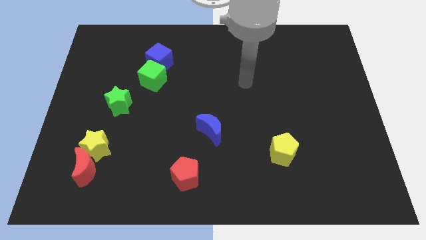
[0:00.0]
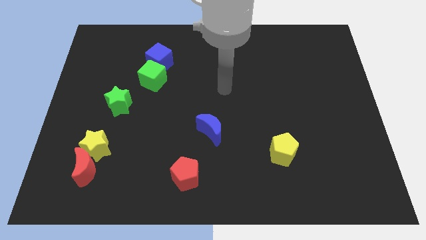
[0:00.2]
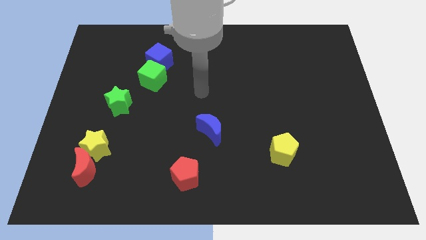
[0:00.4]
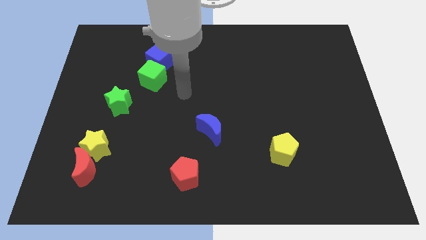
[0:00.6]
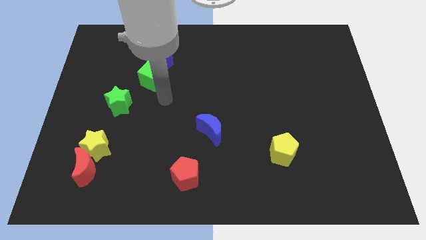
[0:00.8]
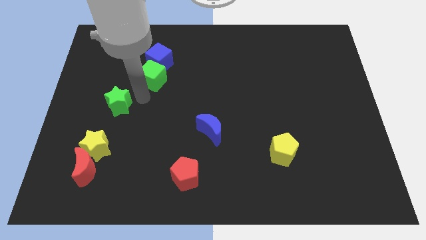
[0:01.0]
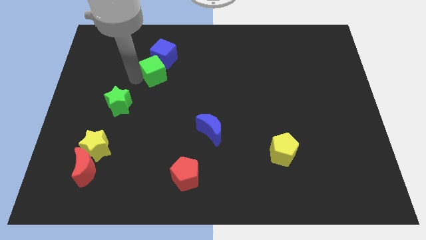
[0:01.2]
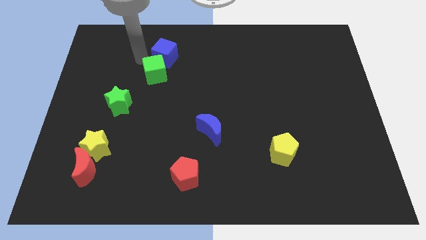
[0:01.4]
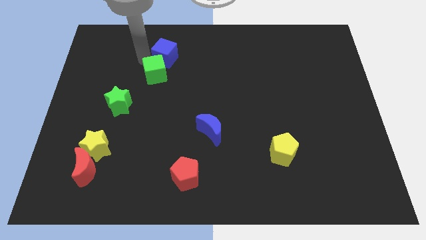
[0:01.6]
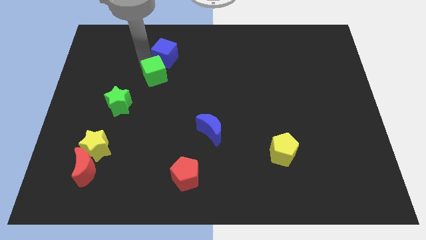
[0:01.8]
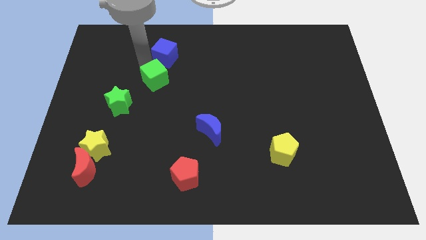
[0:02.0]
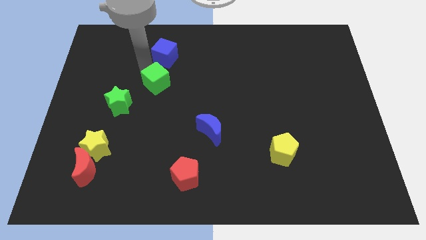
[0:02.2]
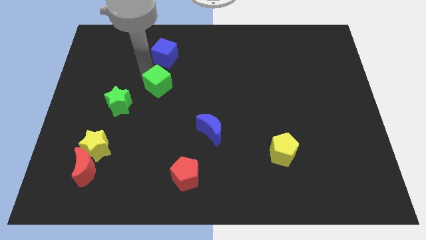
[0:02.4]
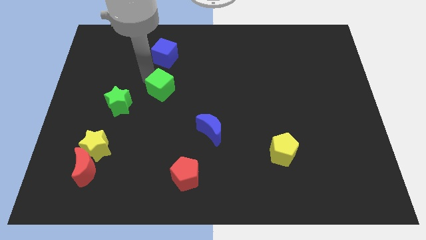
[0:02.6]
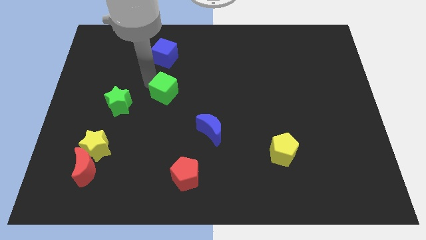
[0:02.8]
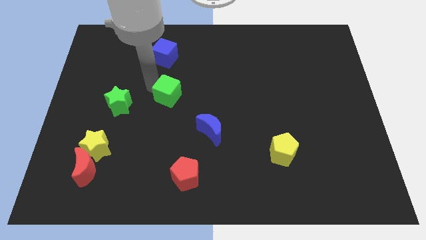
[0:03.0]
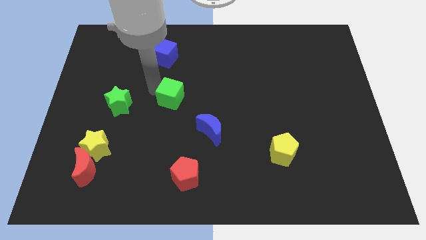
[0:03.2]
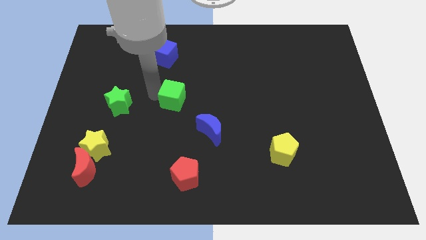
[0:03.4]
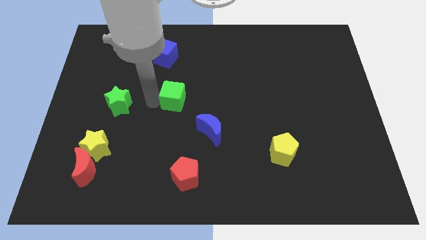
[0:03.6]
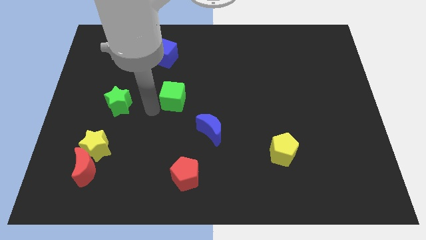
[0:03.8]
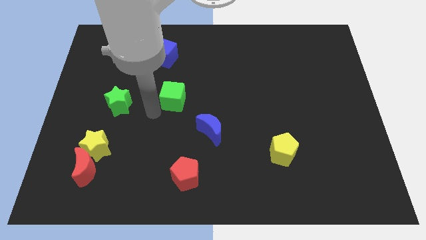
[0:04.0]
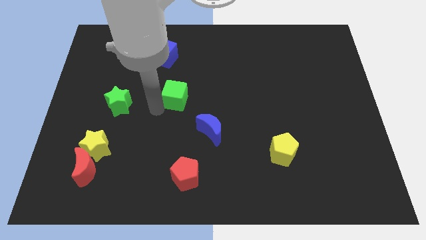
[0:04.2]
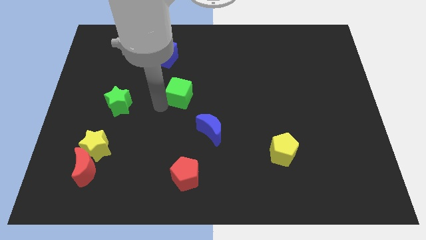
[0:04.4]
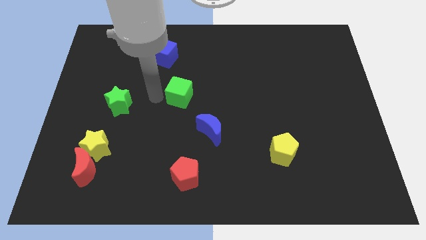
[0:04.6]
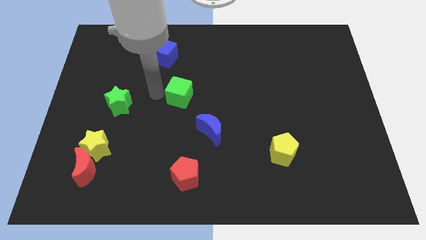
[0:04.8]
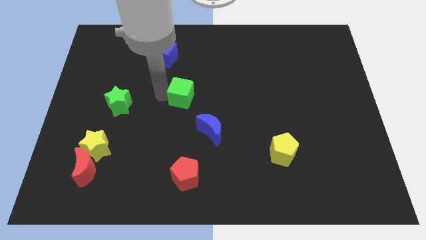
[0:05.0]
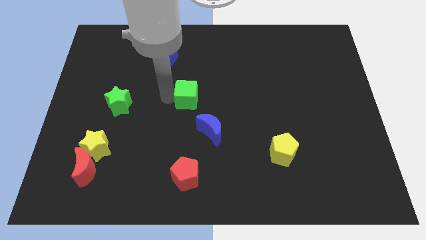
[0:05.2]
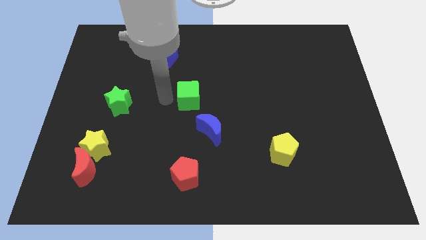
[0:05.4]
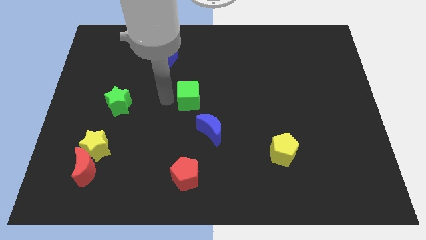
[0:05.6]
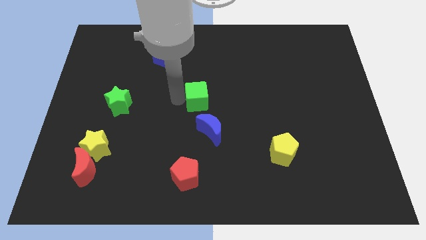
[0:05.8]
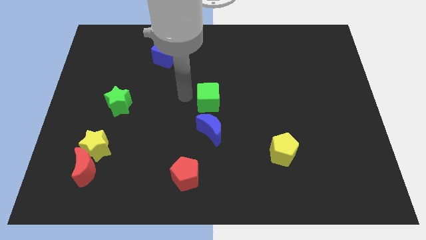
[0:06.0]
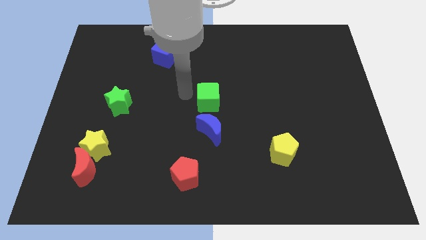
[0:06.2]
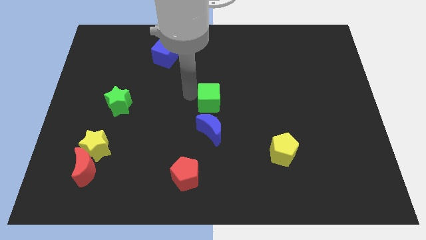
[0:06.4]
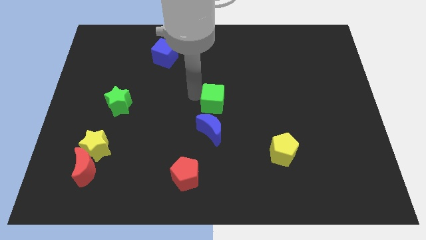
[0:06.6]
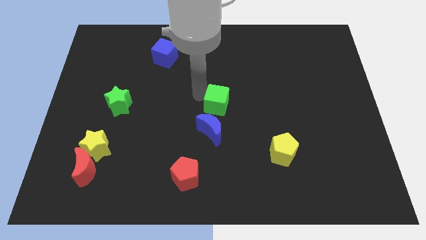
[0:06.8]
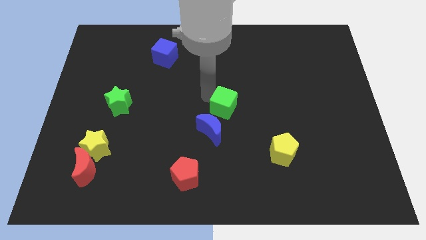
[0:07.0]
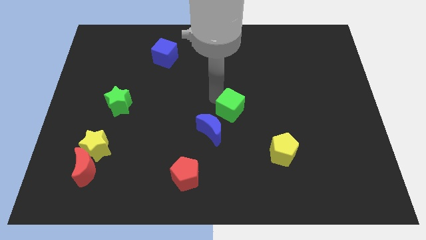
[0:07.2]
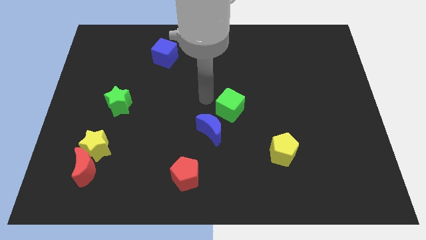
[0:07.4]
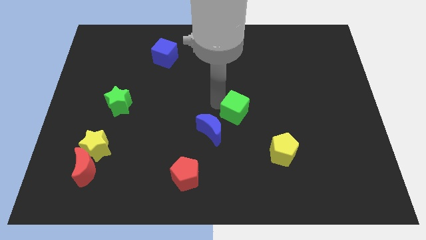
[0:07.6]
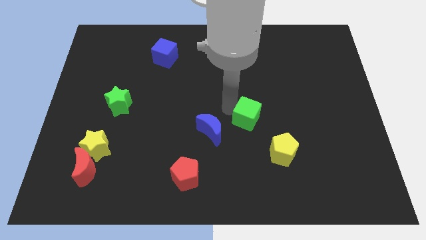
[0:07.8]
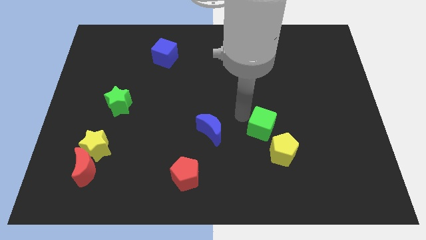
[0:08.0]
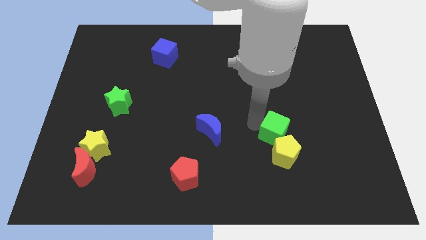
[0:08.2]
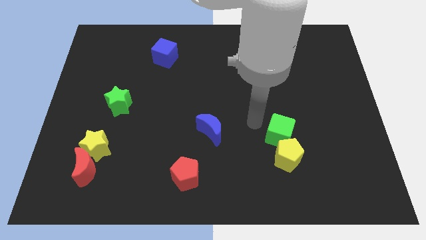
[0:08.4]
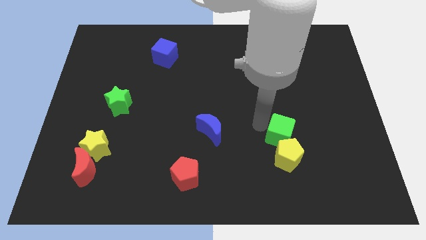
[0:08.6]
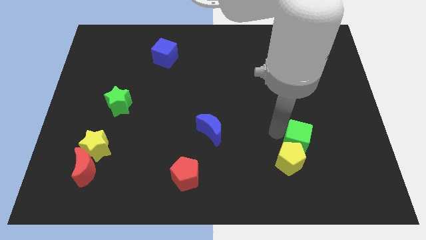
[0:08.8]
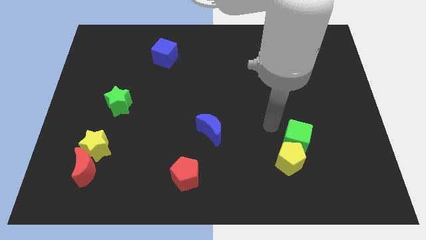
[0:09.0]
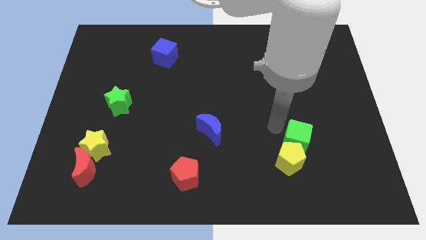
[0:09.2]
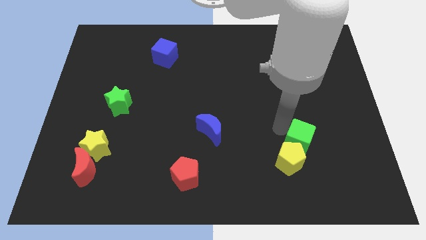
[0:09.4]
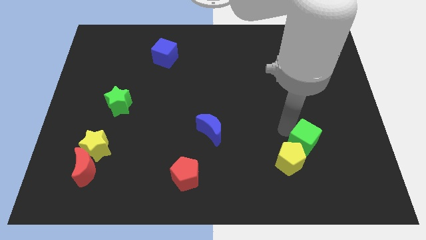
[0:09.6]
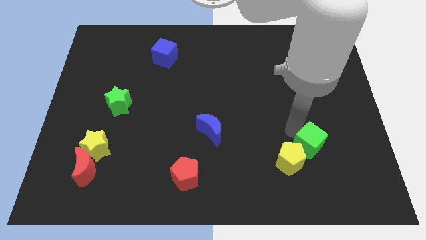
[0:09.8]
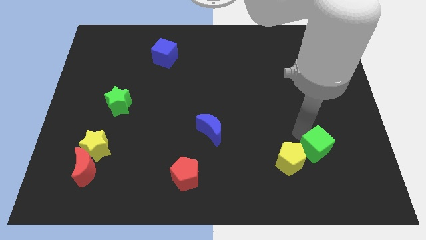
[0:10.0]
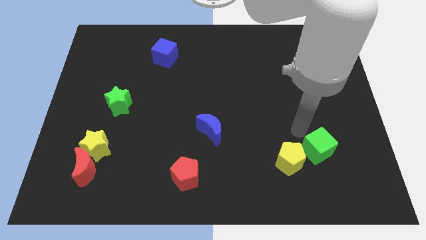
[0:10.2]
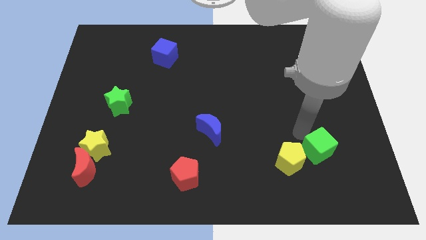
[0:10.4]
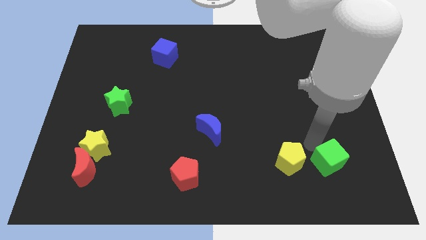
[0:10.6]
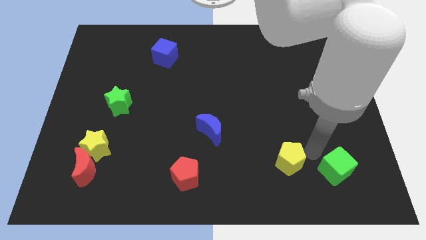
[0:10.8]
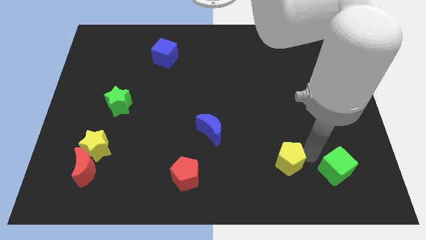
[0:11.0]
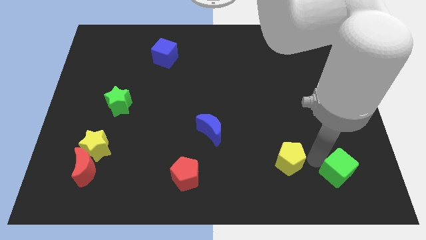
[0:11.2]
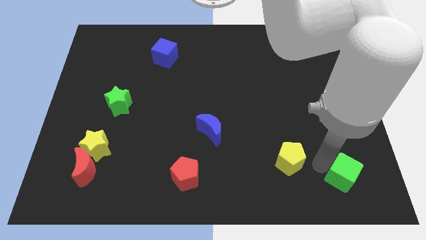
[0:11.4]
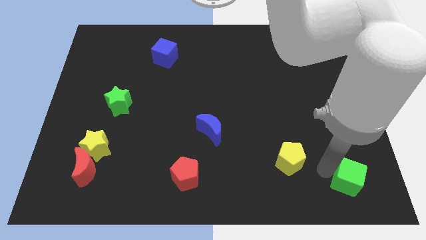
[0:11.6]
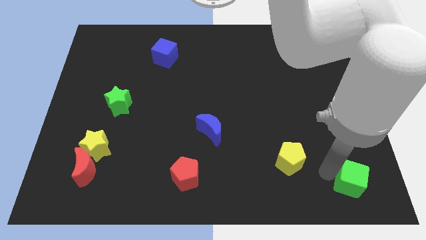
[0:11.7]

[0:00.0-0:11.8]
put the green cube to the bottom right corner

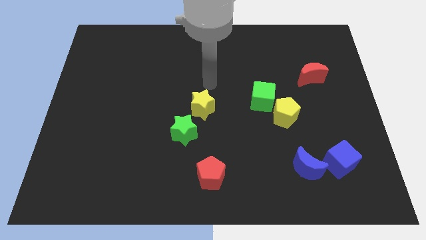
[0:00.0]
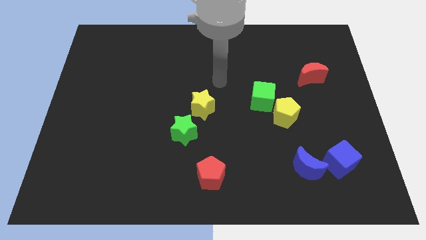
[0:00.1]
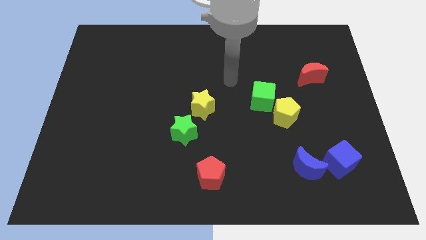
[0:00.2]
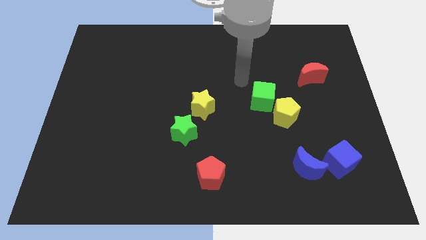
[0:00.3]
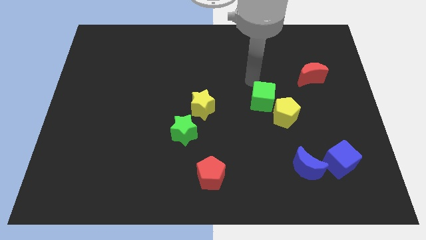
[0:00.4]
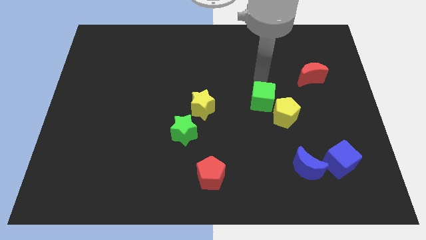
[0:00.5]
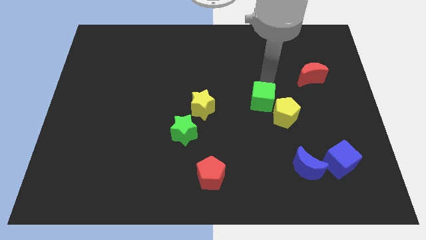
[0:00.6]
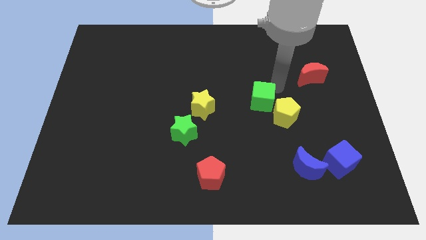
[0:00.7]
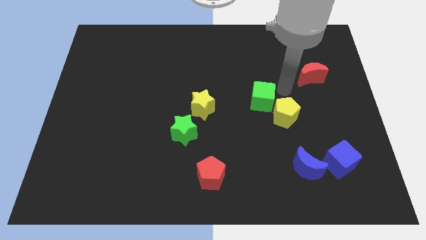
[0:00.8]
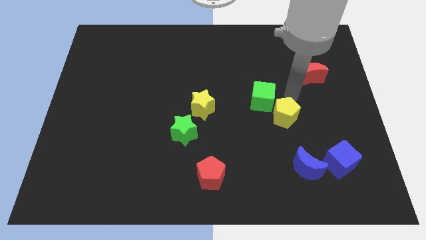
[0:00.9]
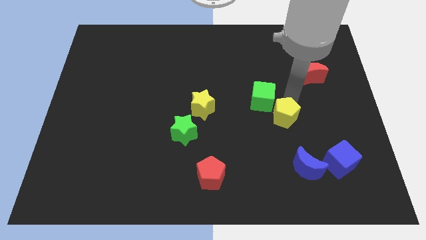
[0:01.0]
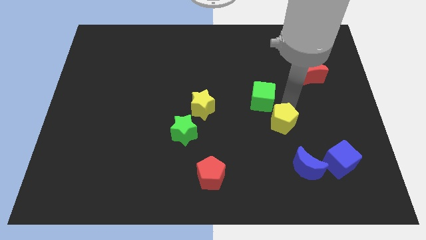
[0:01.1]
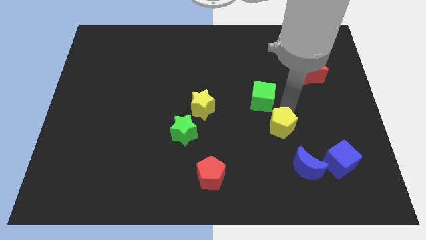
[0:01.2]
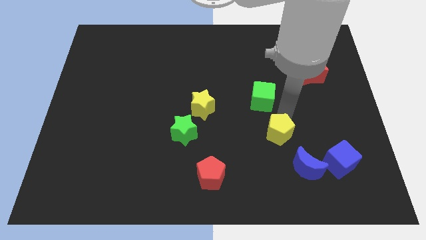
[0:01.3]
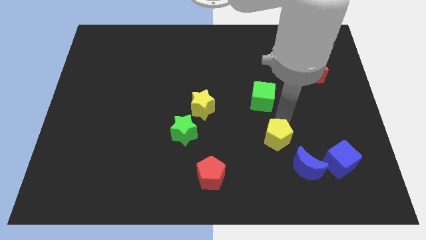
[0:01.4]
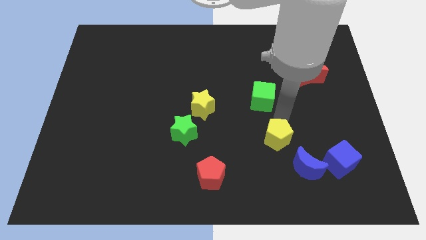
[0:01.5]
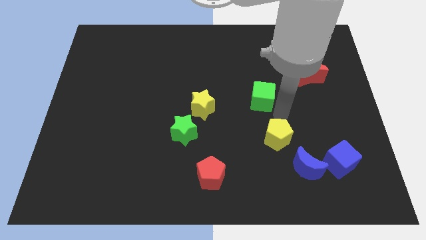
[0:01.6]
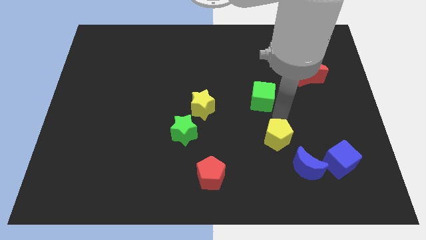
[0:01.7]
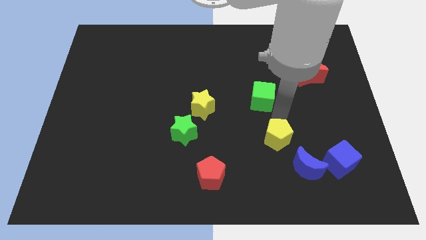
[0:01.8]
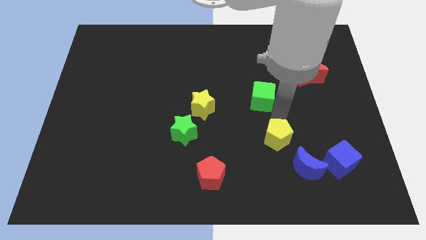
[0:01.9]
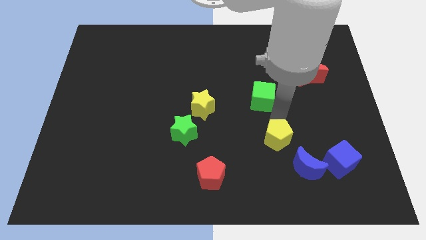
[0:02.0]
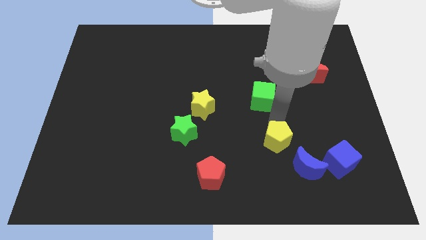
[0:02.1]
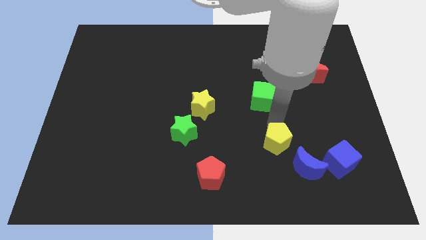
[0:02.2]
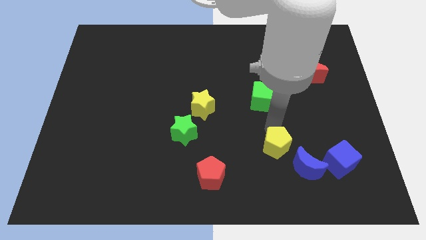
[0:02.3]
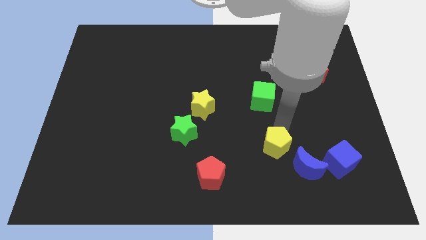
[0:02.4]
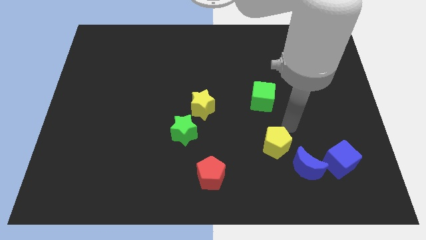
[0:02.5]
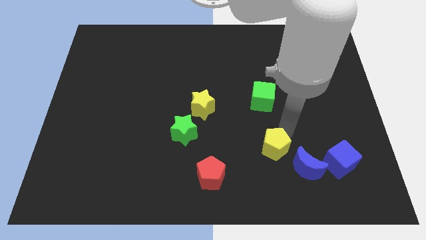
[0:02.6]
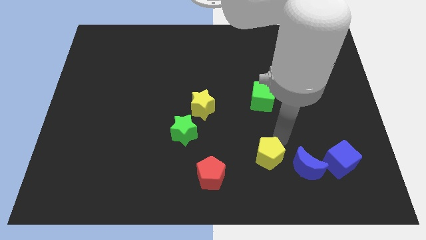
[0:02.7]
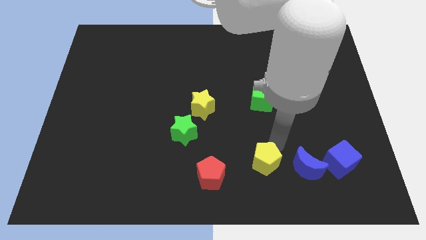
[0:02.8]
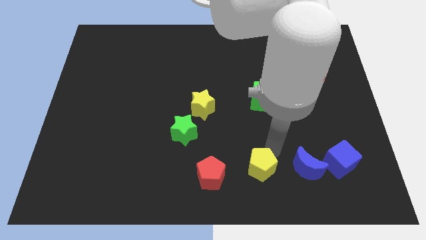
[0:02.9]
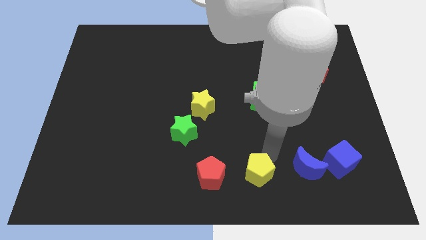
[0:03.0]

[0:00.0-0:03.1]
move the yellow pentagon to the bottom
